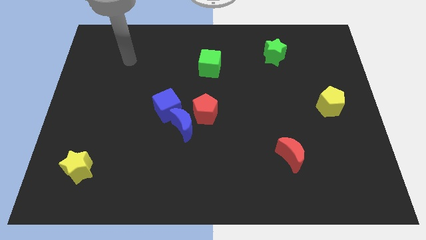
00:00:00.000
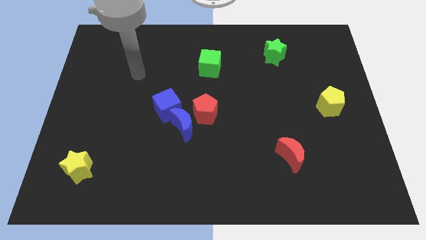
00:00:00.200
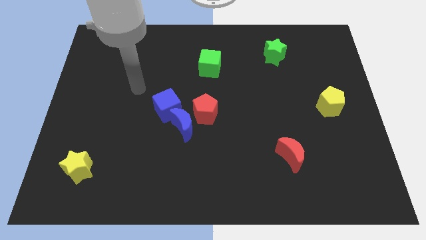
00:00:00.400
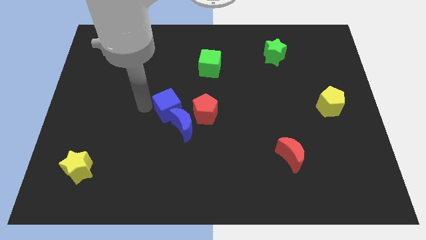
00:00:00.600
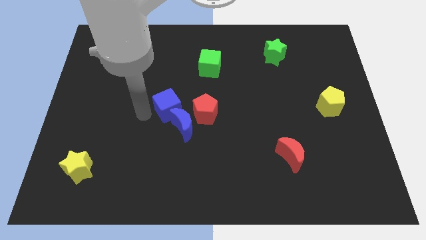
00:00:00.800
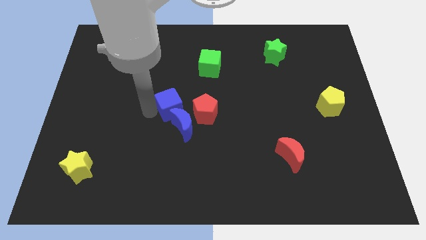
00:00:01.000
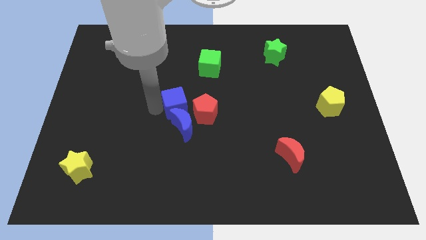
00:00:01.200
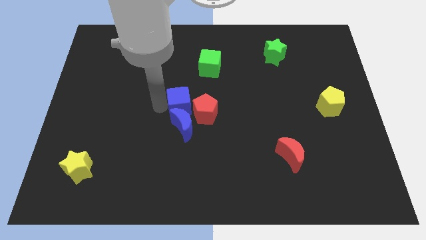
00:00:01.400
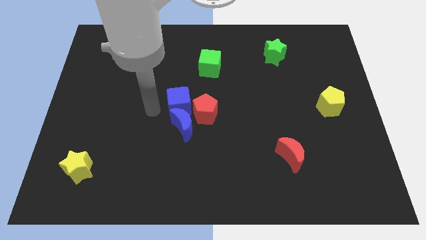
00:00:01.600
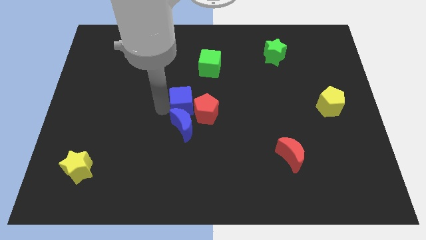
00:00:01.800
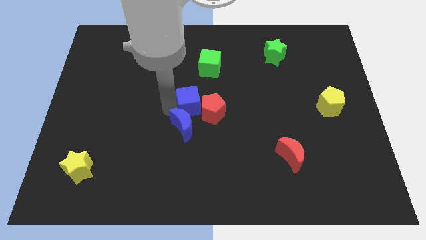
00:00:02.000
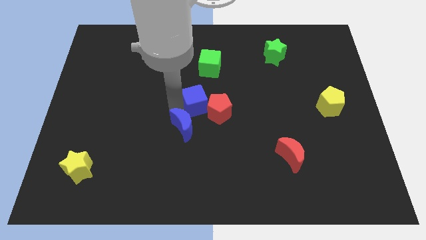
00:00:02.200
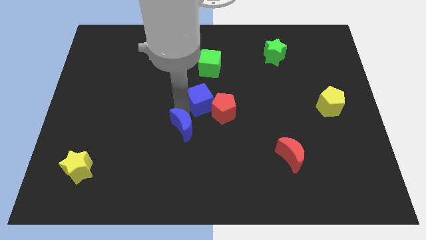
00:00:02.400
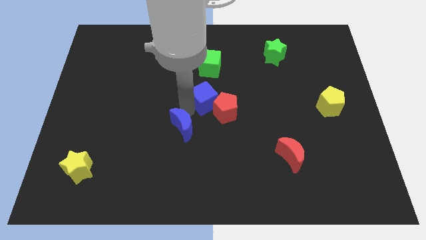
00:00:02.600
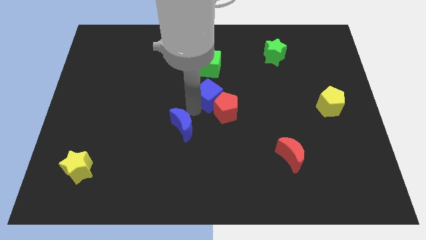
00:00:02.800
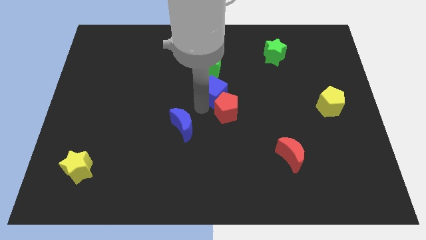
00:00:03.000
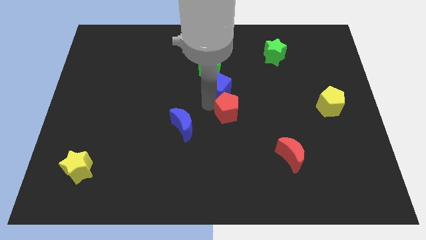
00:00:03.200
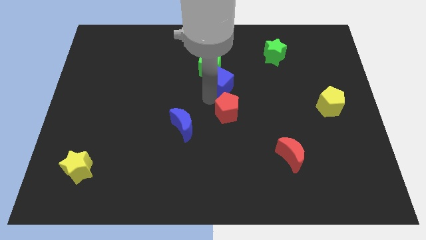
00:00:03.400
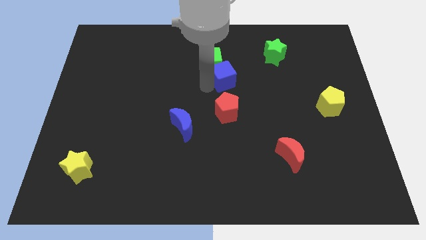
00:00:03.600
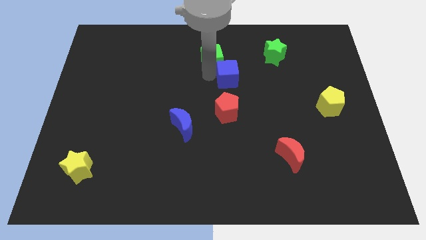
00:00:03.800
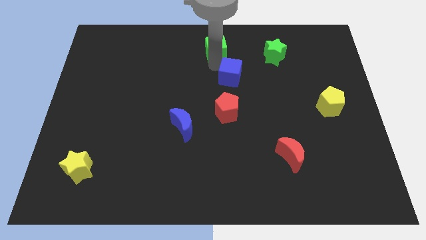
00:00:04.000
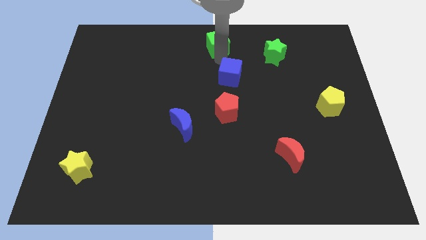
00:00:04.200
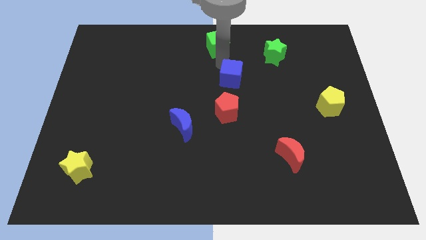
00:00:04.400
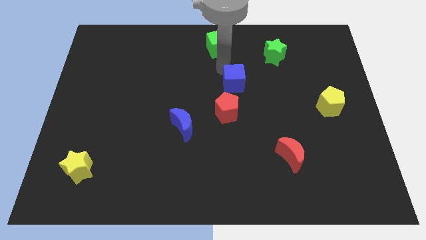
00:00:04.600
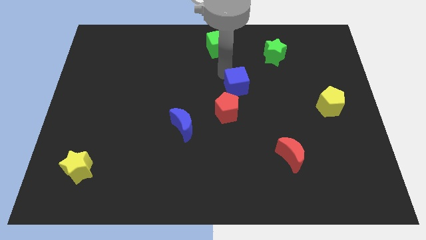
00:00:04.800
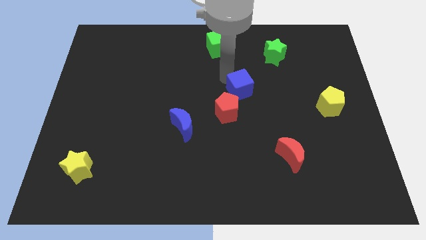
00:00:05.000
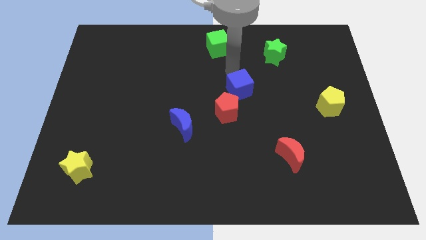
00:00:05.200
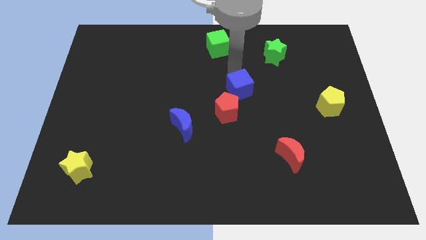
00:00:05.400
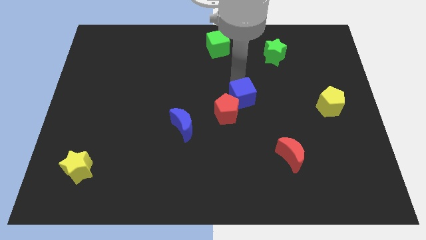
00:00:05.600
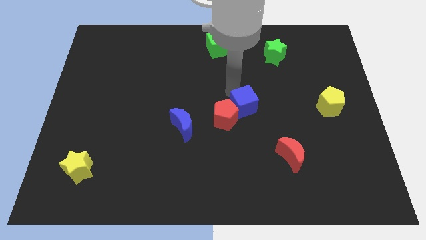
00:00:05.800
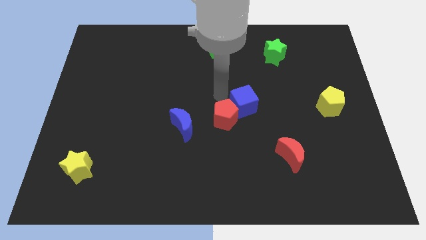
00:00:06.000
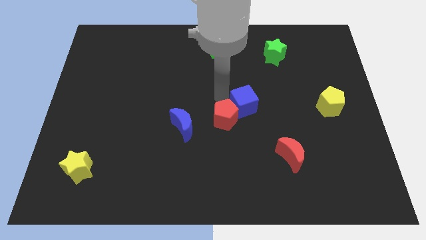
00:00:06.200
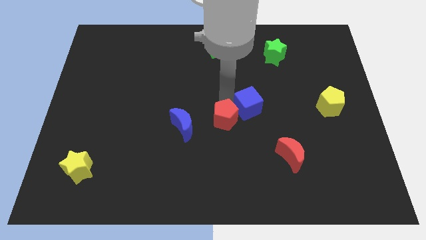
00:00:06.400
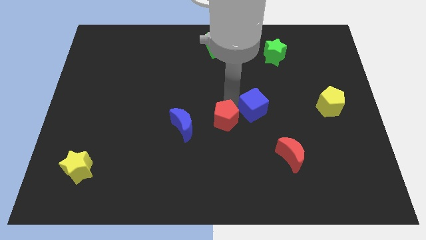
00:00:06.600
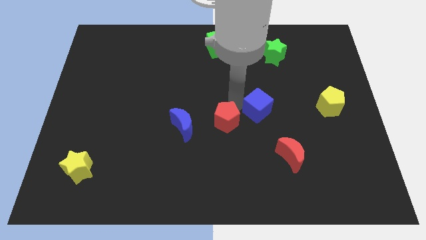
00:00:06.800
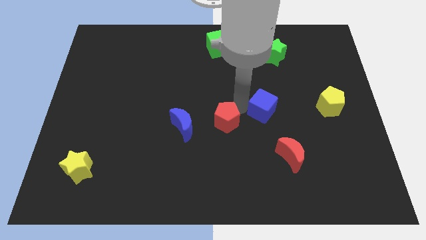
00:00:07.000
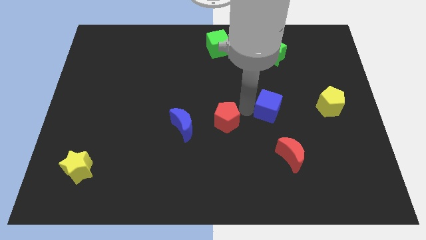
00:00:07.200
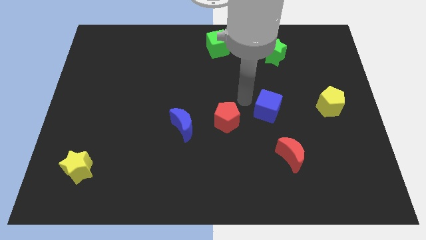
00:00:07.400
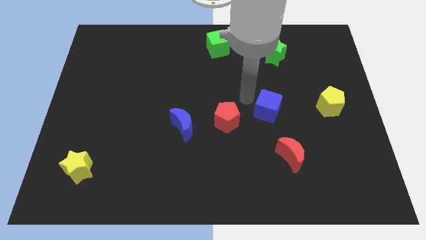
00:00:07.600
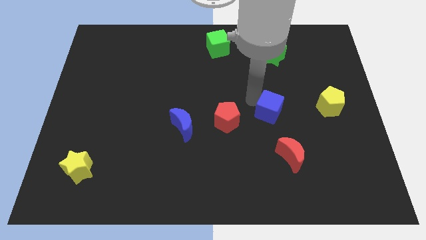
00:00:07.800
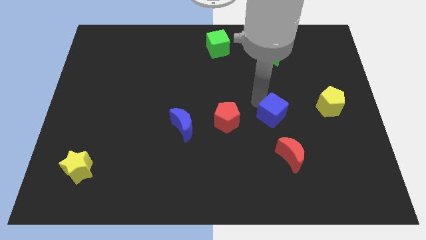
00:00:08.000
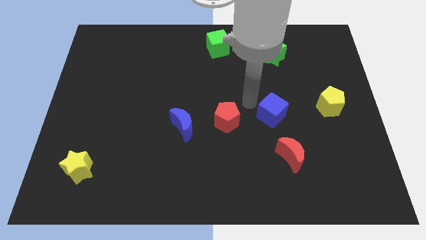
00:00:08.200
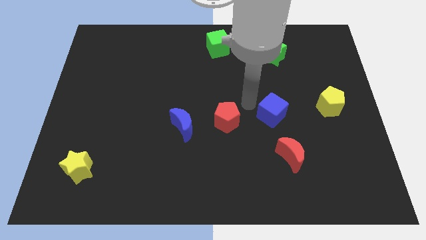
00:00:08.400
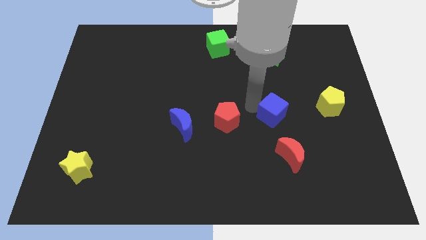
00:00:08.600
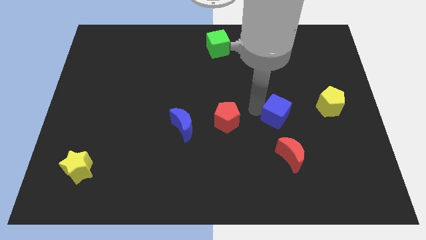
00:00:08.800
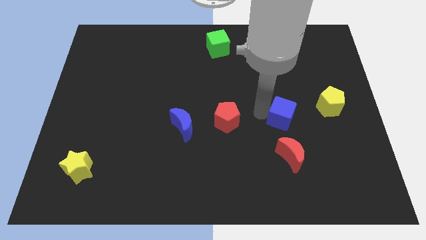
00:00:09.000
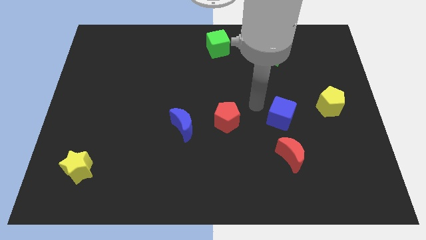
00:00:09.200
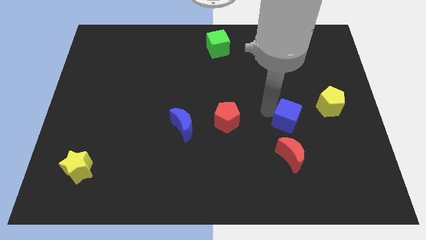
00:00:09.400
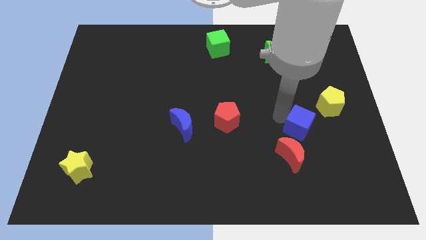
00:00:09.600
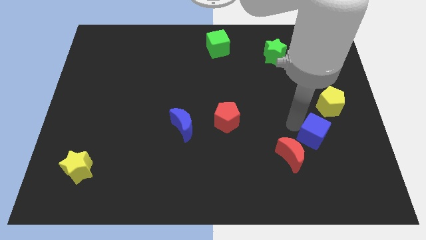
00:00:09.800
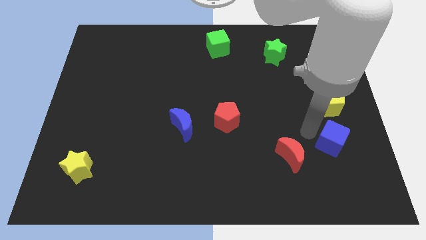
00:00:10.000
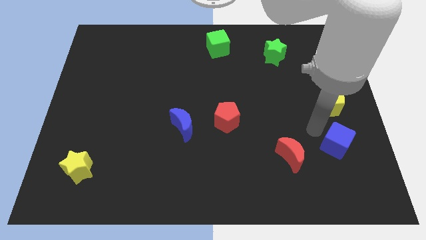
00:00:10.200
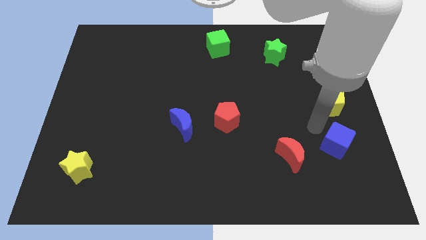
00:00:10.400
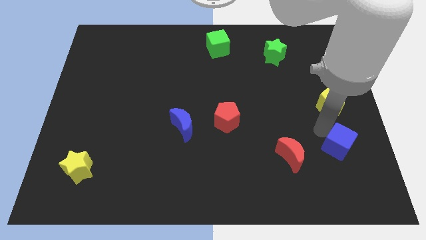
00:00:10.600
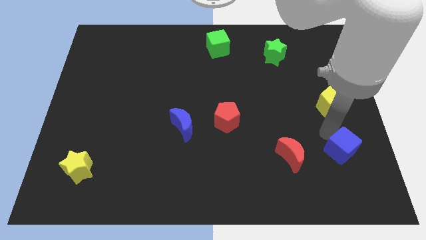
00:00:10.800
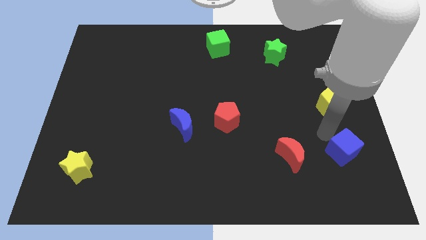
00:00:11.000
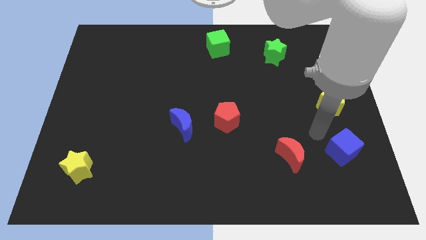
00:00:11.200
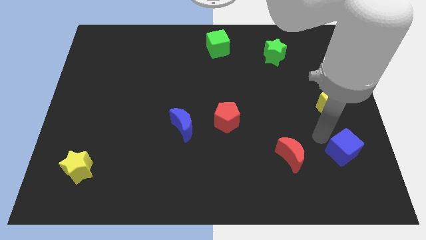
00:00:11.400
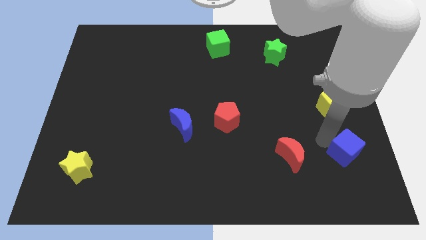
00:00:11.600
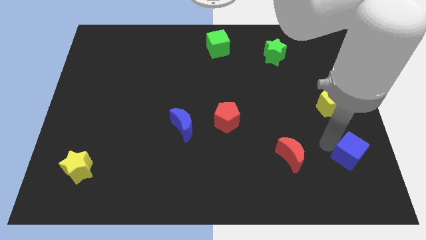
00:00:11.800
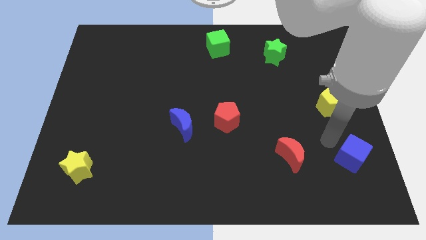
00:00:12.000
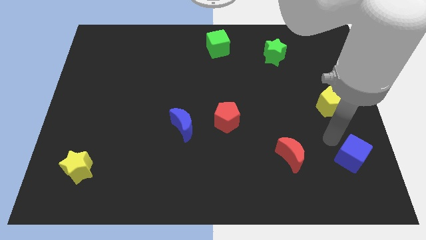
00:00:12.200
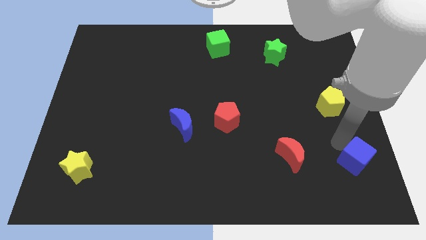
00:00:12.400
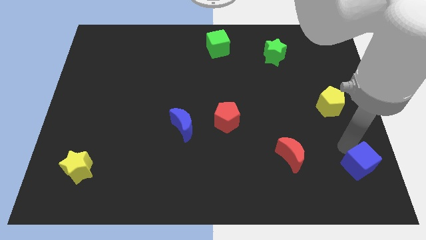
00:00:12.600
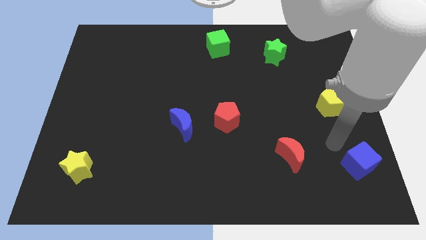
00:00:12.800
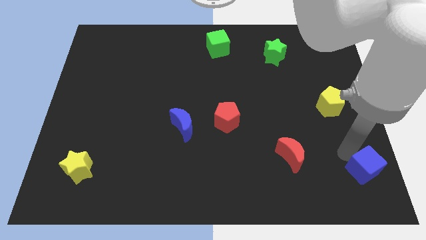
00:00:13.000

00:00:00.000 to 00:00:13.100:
push the blue cube to the bottom right of the board

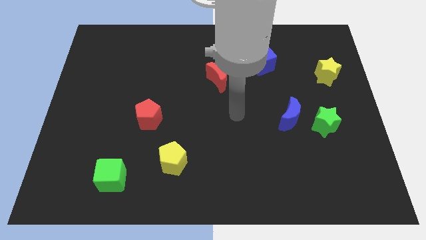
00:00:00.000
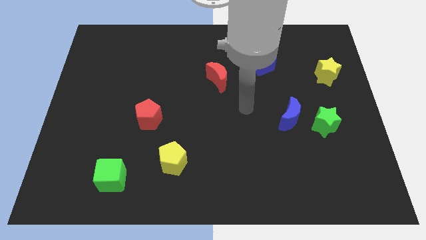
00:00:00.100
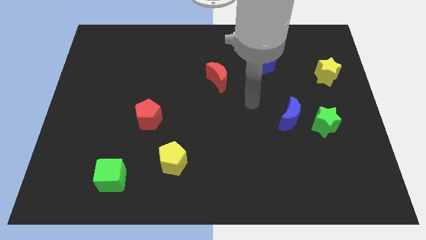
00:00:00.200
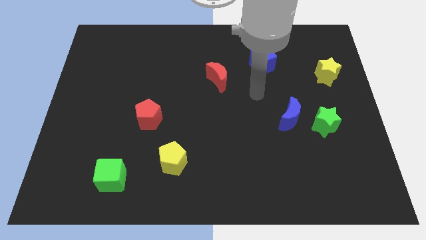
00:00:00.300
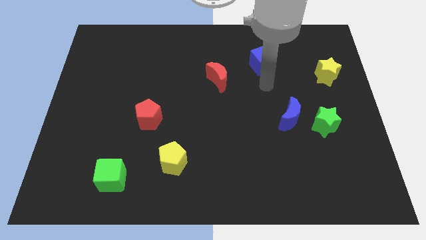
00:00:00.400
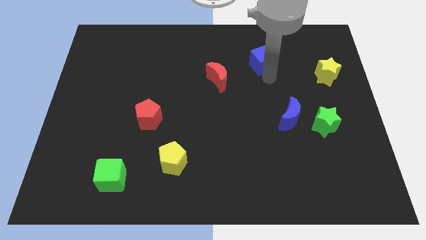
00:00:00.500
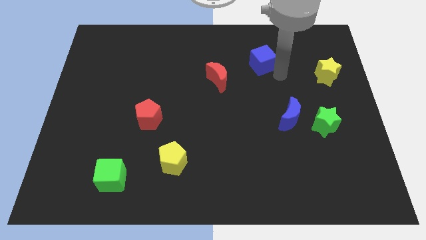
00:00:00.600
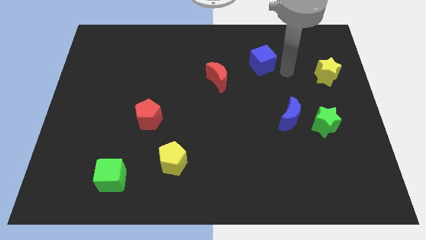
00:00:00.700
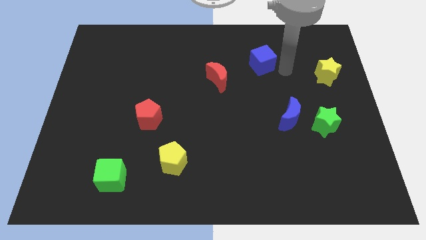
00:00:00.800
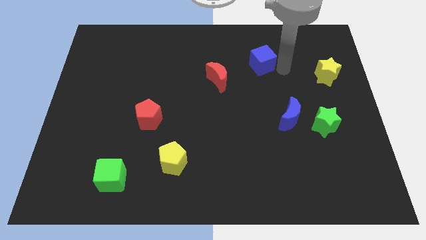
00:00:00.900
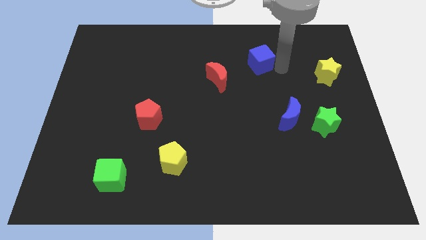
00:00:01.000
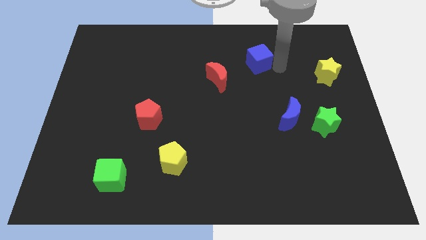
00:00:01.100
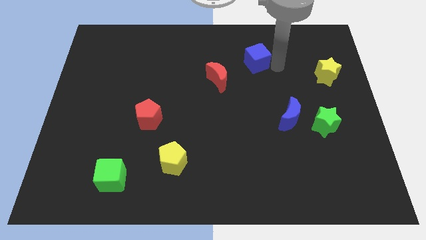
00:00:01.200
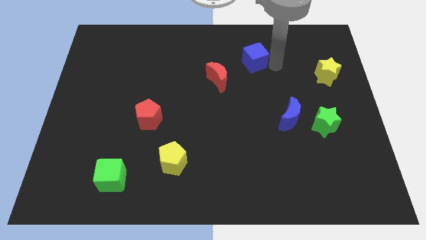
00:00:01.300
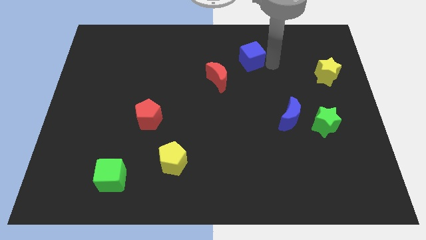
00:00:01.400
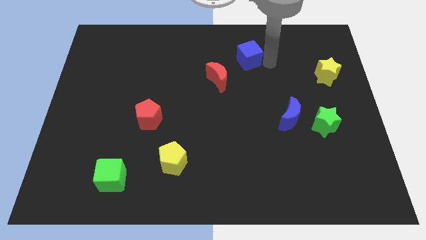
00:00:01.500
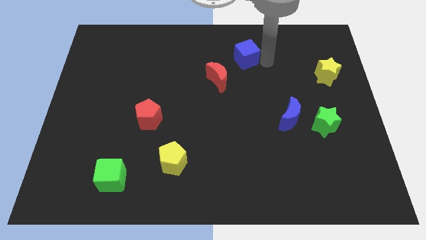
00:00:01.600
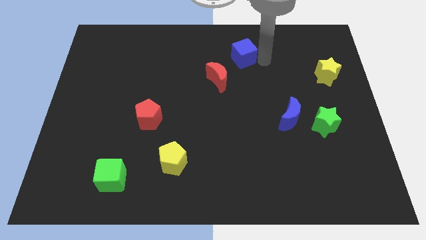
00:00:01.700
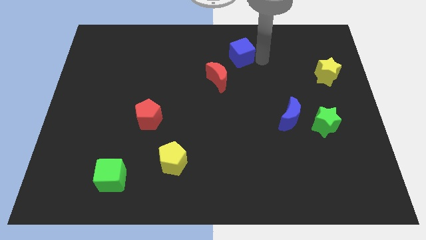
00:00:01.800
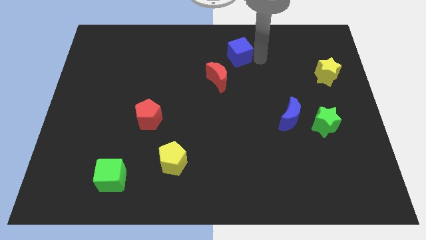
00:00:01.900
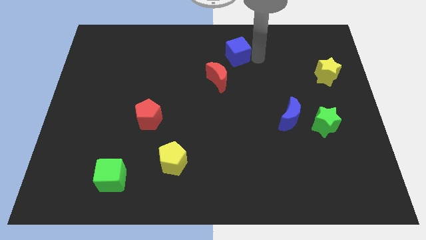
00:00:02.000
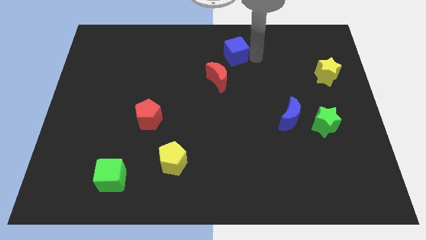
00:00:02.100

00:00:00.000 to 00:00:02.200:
put the blue cube to the top side
